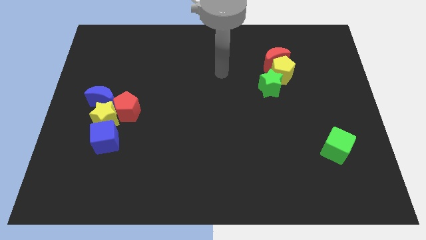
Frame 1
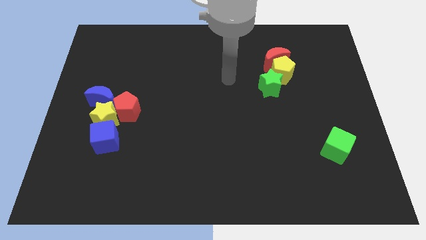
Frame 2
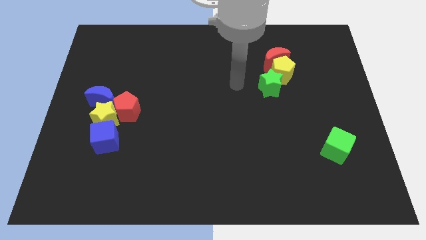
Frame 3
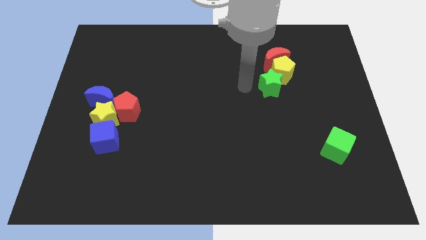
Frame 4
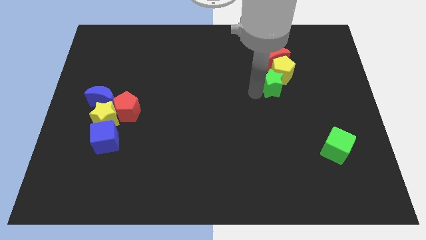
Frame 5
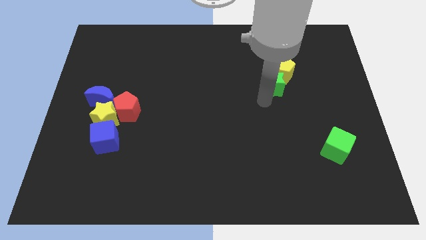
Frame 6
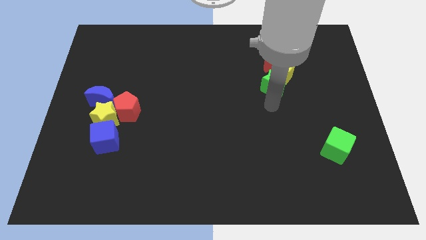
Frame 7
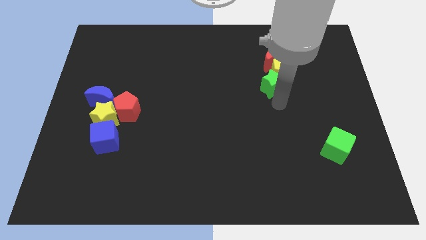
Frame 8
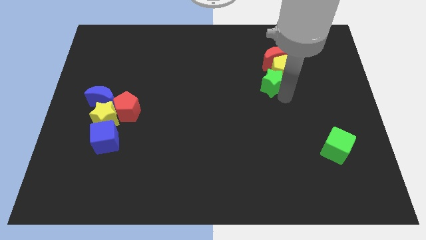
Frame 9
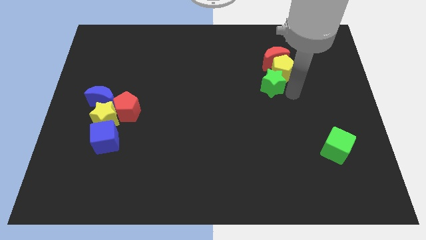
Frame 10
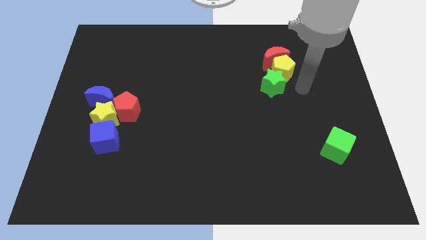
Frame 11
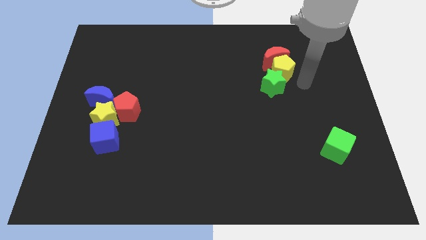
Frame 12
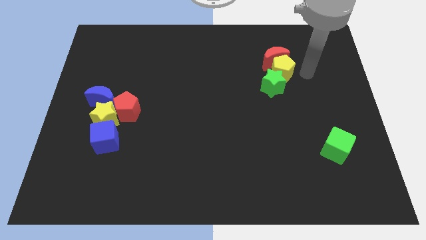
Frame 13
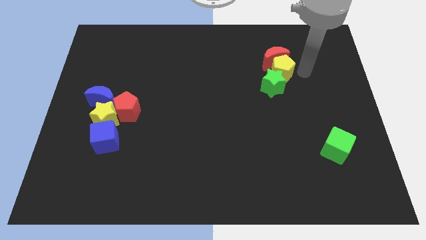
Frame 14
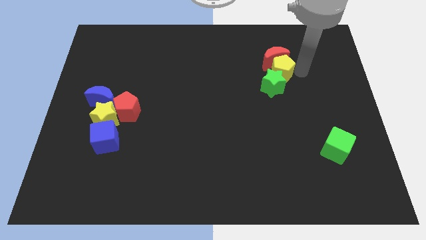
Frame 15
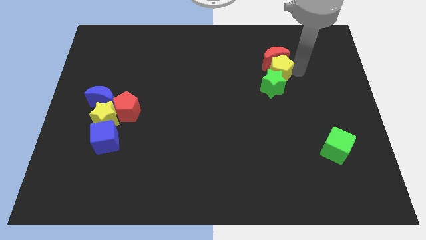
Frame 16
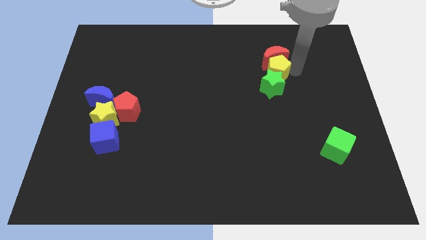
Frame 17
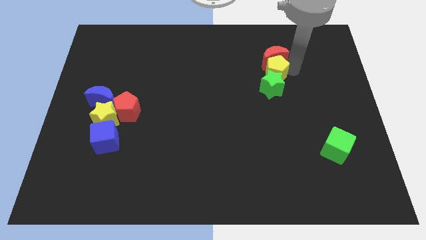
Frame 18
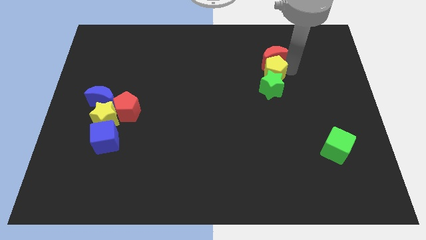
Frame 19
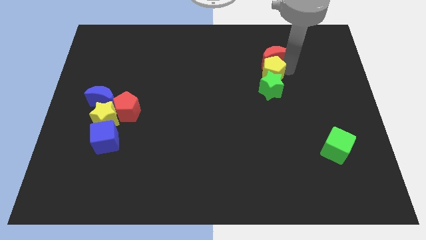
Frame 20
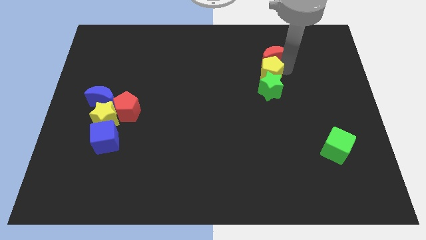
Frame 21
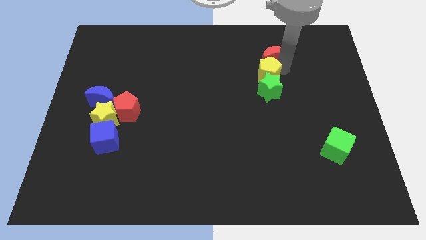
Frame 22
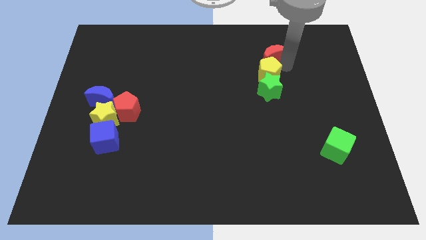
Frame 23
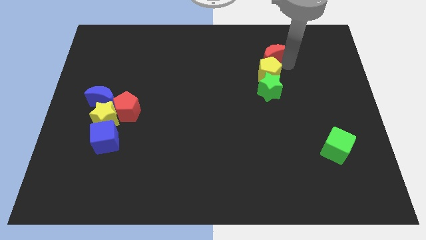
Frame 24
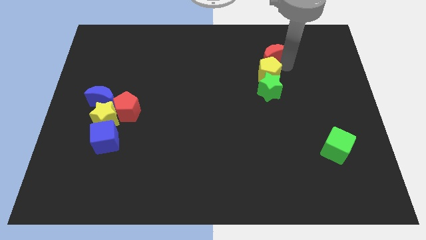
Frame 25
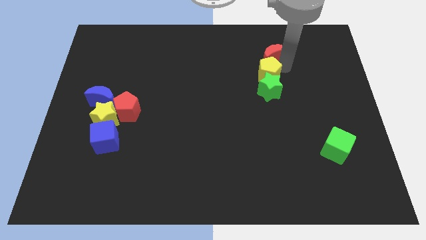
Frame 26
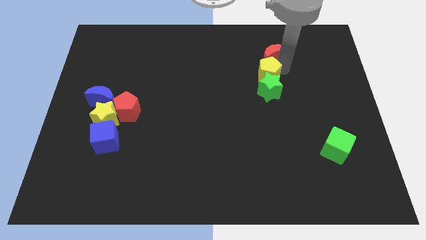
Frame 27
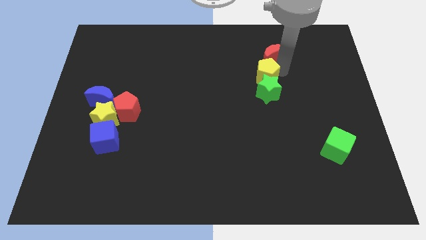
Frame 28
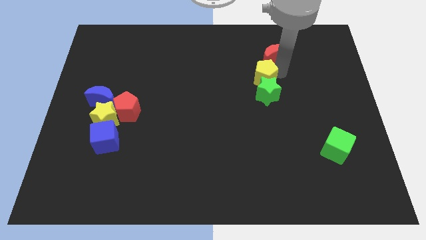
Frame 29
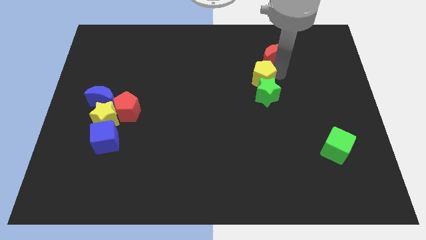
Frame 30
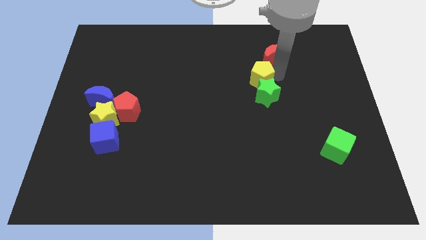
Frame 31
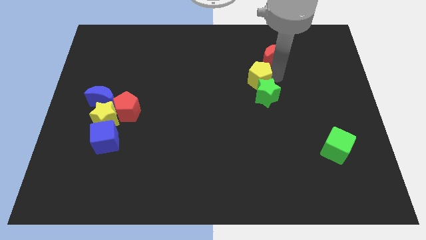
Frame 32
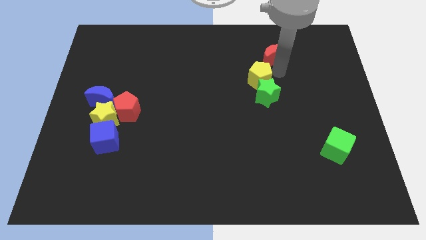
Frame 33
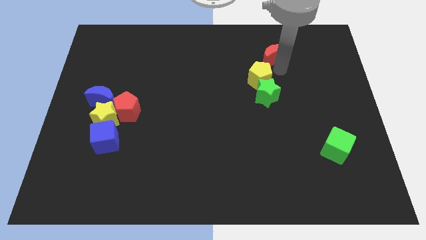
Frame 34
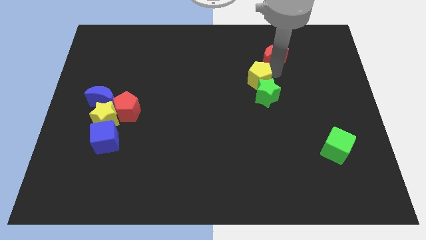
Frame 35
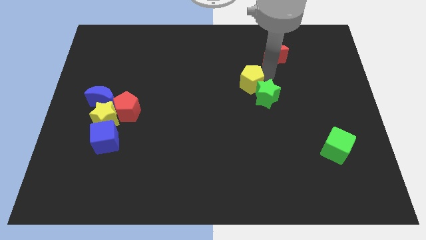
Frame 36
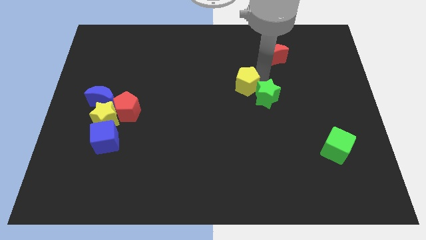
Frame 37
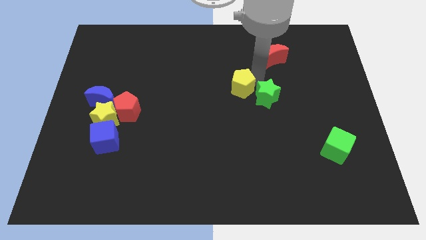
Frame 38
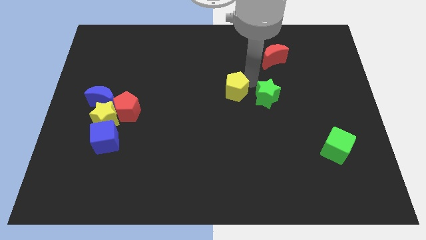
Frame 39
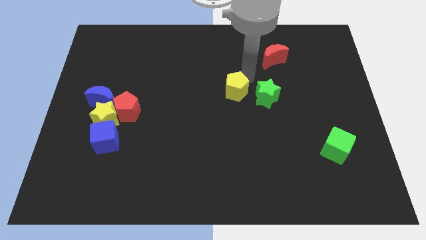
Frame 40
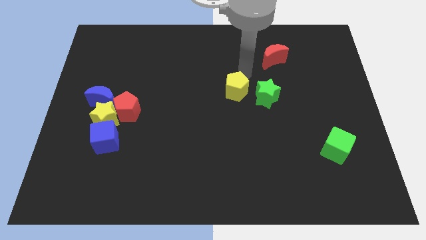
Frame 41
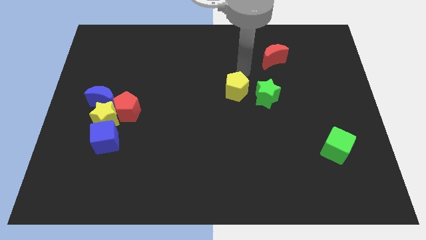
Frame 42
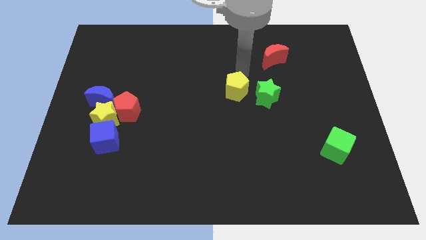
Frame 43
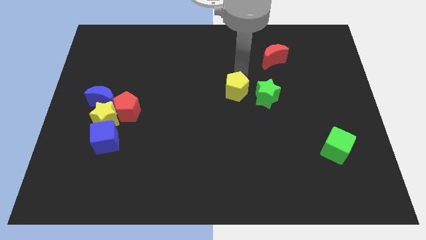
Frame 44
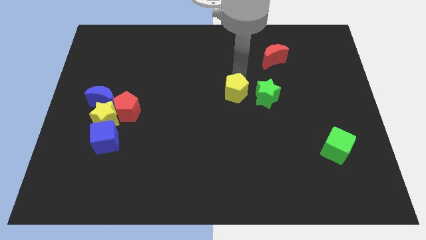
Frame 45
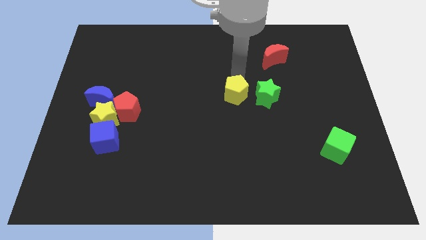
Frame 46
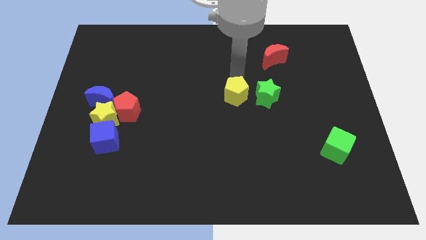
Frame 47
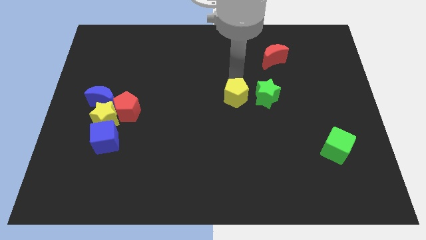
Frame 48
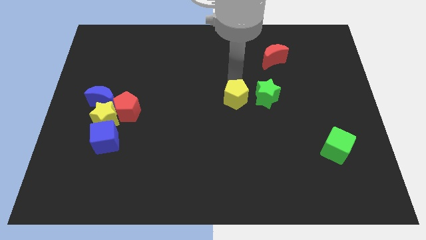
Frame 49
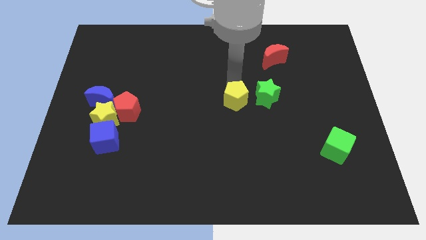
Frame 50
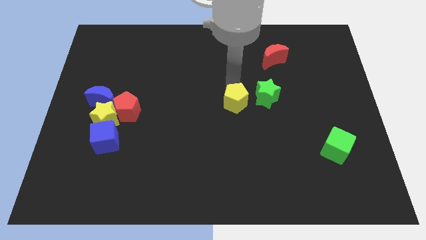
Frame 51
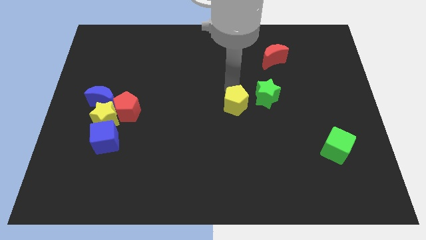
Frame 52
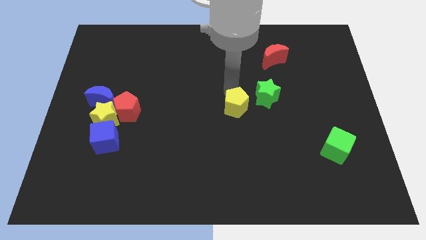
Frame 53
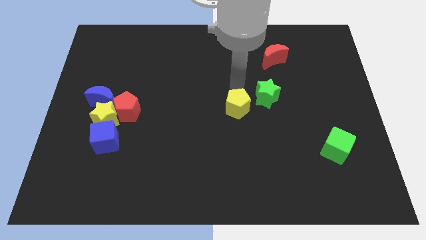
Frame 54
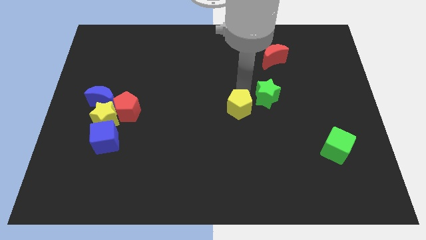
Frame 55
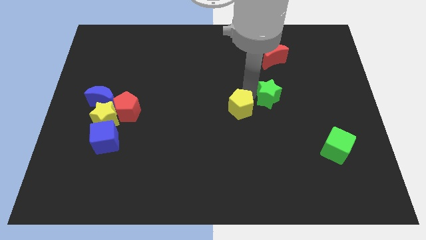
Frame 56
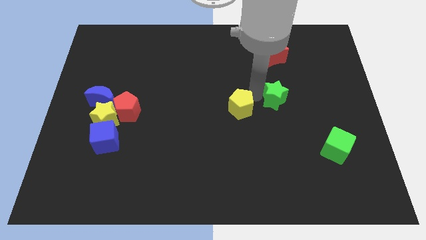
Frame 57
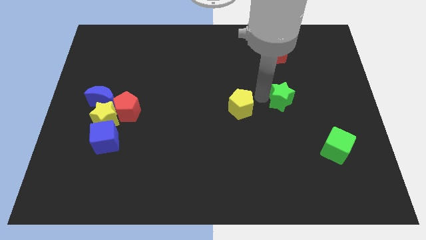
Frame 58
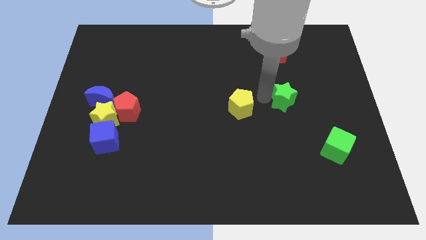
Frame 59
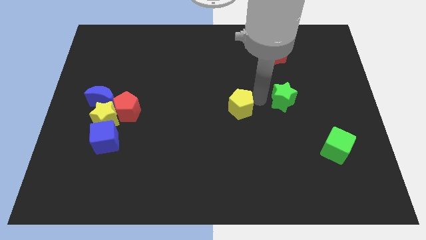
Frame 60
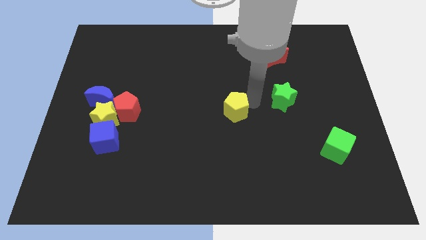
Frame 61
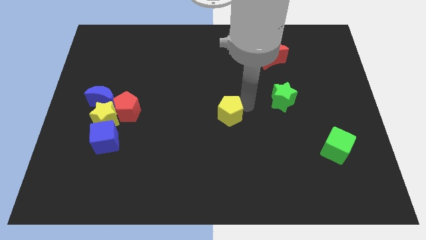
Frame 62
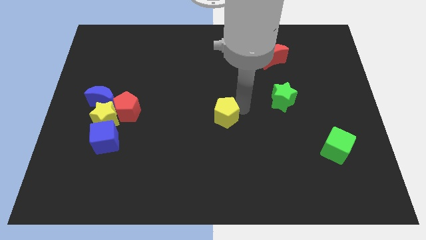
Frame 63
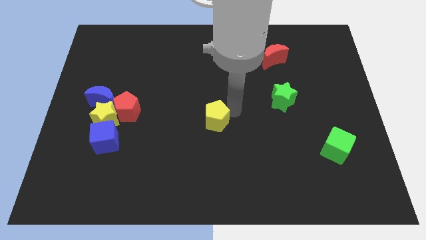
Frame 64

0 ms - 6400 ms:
push the yellow pentagon down and then left

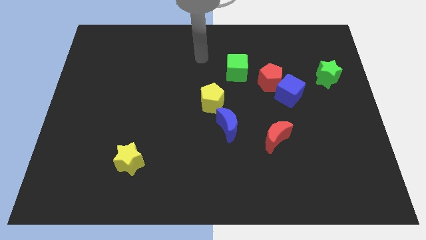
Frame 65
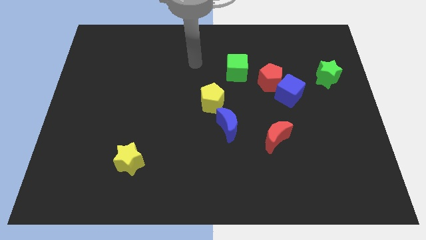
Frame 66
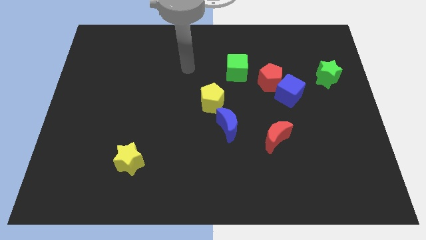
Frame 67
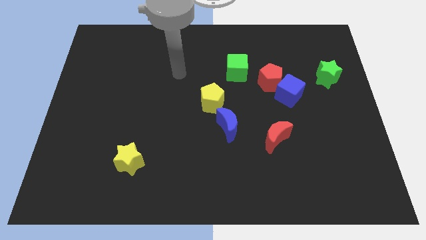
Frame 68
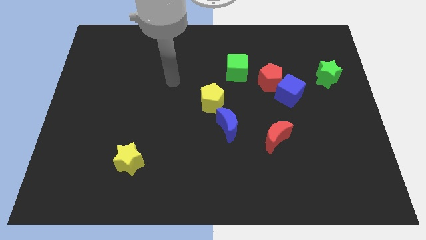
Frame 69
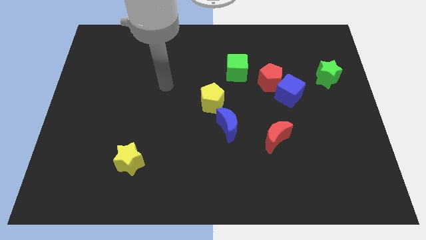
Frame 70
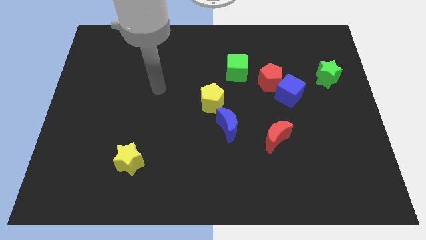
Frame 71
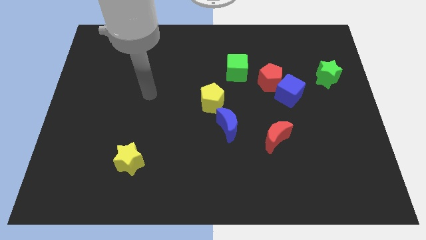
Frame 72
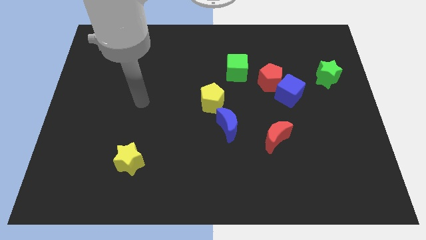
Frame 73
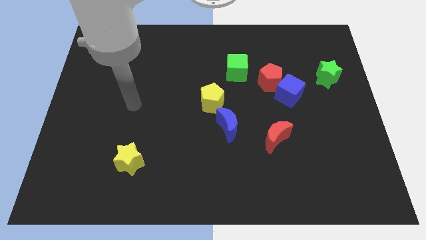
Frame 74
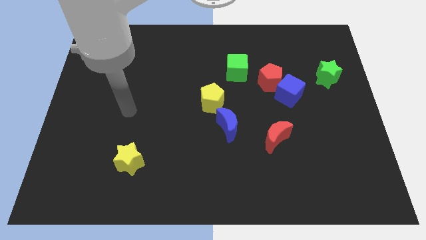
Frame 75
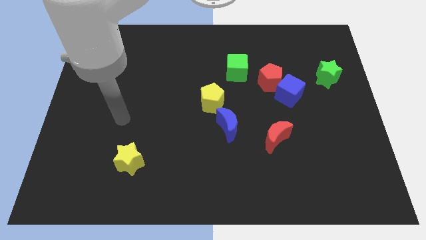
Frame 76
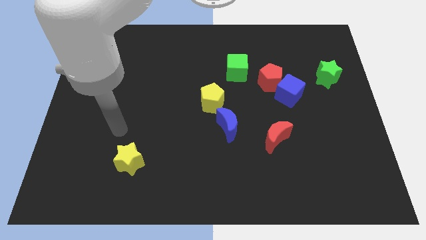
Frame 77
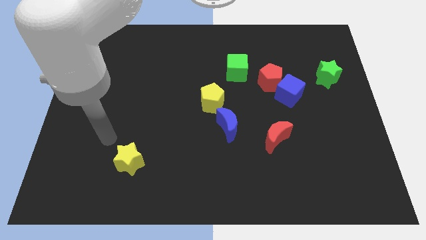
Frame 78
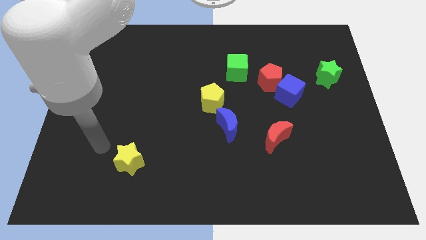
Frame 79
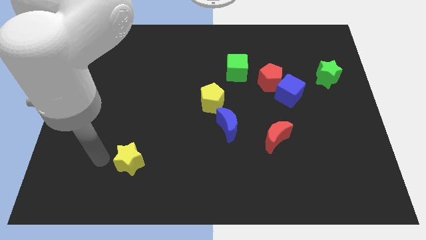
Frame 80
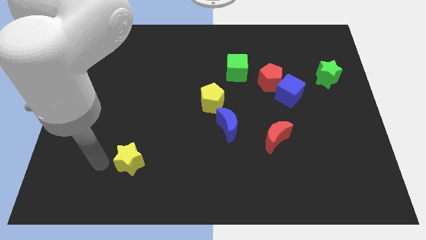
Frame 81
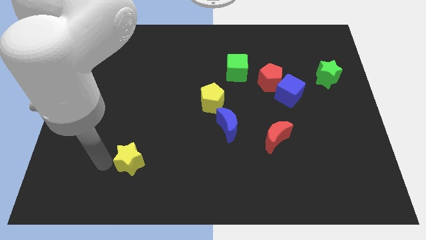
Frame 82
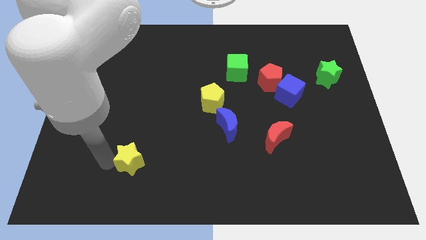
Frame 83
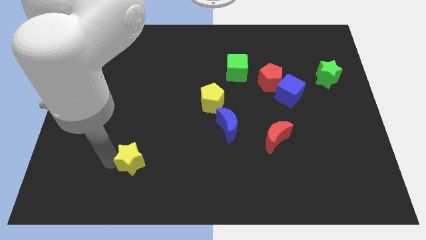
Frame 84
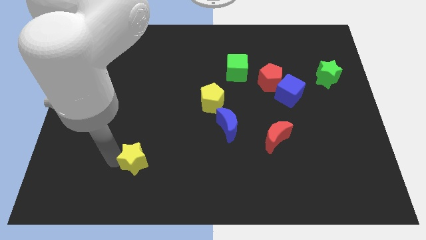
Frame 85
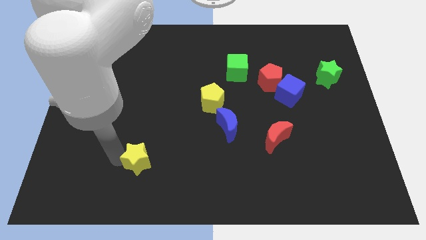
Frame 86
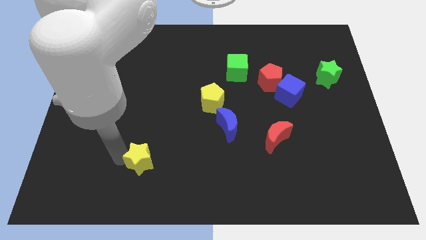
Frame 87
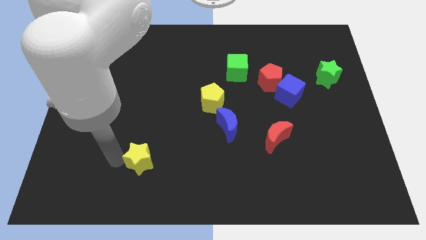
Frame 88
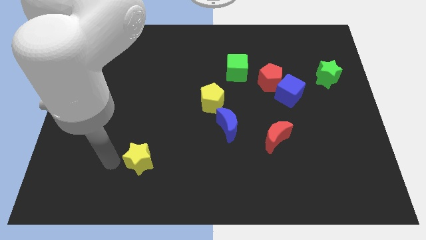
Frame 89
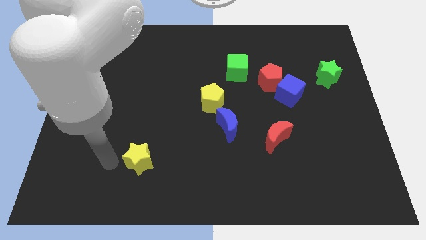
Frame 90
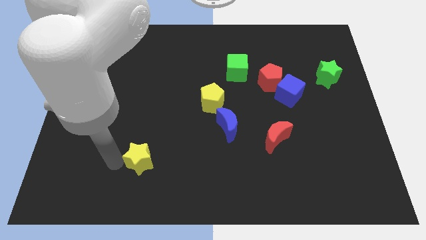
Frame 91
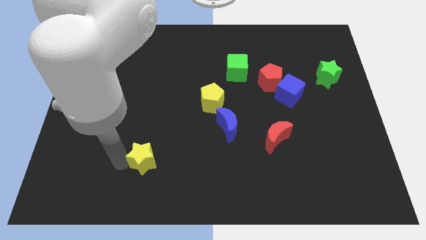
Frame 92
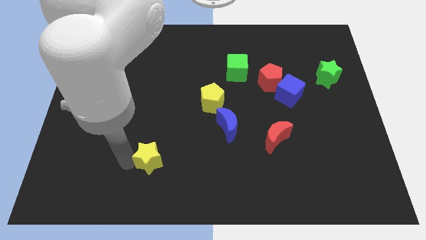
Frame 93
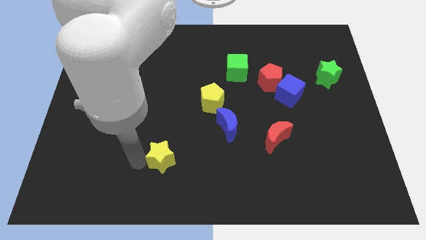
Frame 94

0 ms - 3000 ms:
push the yellow star a bit right
